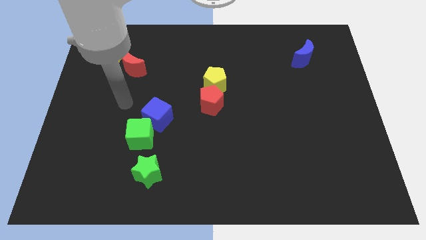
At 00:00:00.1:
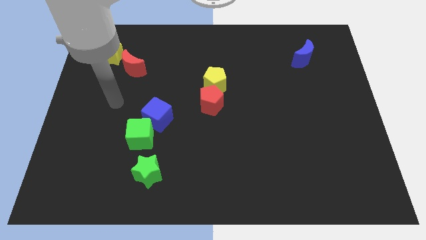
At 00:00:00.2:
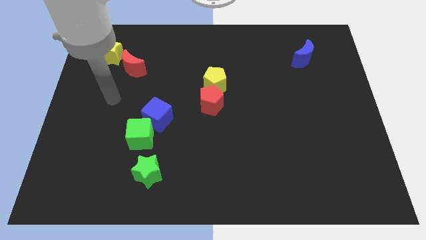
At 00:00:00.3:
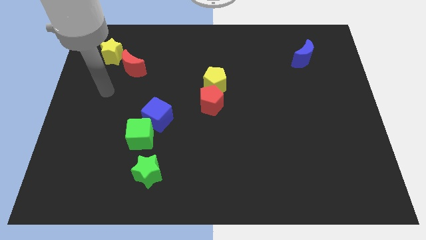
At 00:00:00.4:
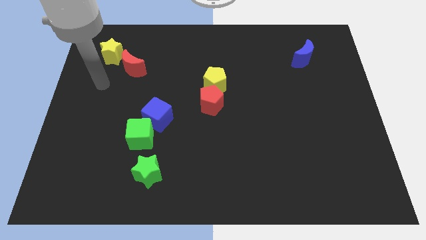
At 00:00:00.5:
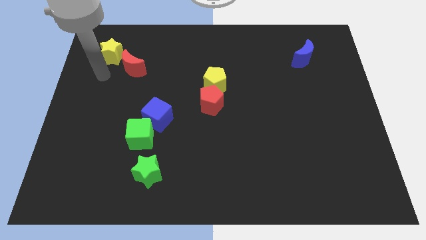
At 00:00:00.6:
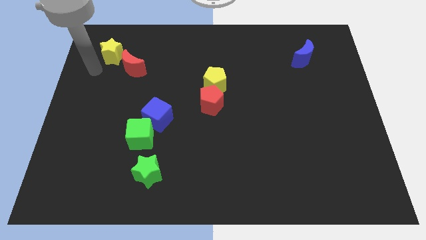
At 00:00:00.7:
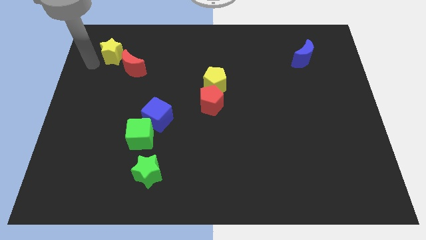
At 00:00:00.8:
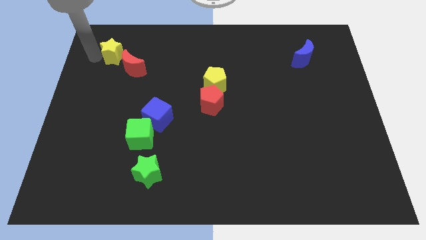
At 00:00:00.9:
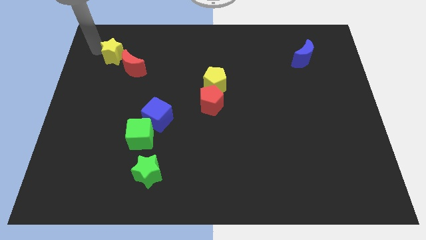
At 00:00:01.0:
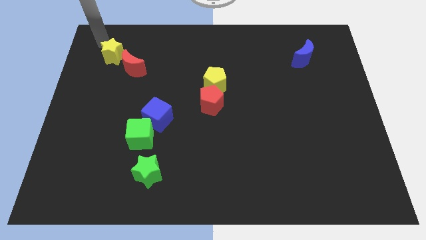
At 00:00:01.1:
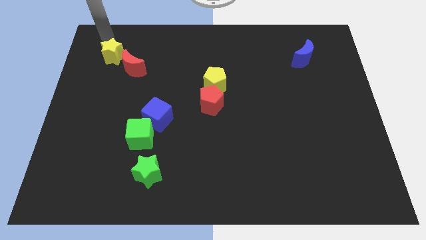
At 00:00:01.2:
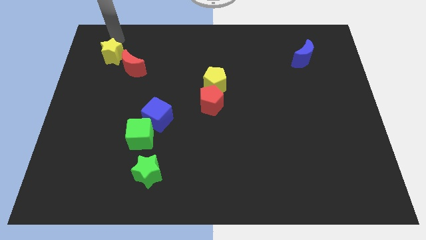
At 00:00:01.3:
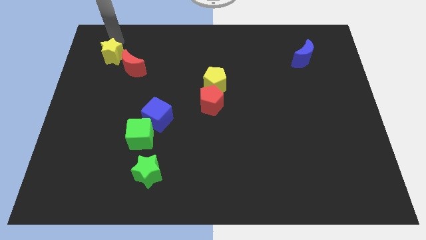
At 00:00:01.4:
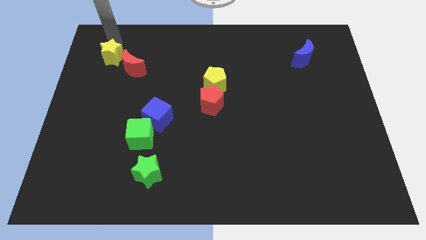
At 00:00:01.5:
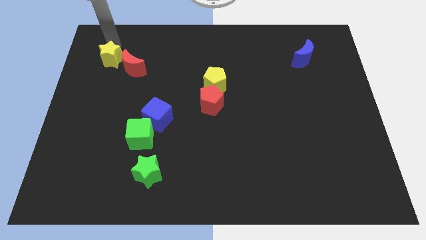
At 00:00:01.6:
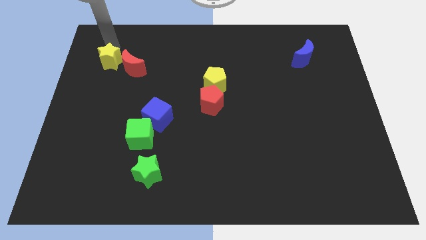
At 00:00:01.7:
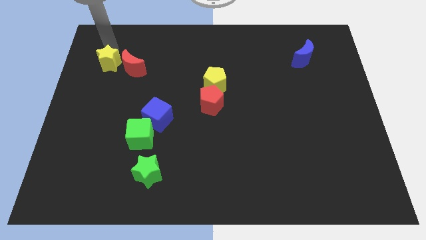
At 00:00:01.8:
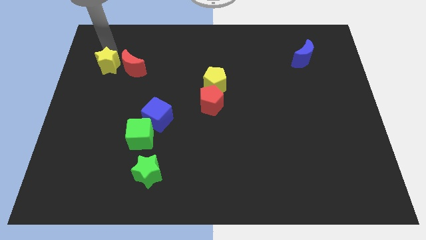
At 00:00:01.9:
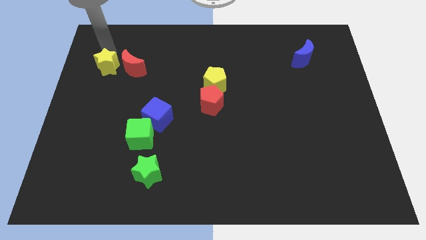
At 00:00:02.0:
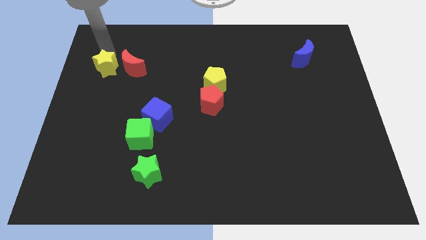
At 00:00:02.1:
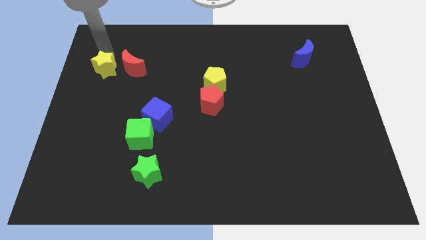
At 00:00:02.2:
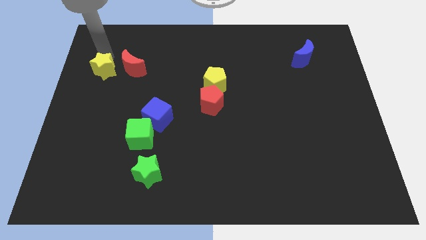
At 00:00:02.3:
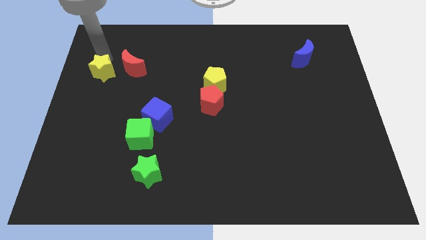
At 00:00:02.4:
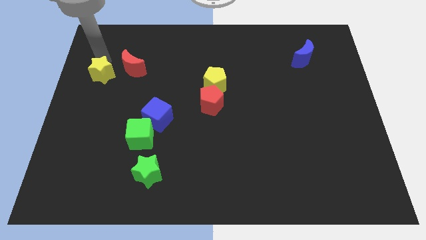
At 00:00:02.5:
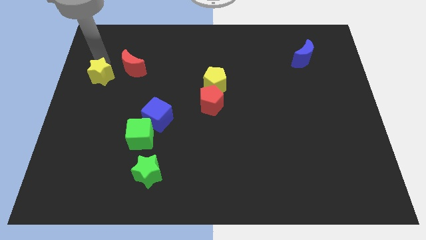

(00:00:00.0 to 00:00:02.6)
push the yellow star somewhat downwards

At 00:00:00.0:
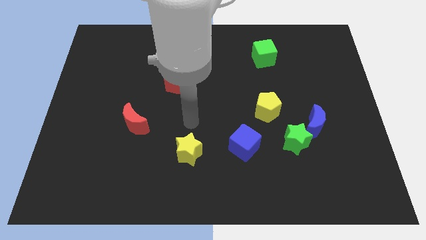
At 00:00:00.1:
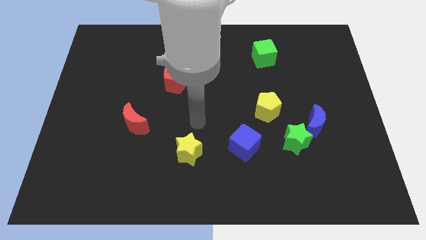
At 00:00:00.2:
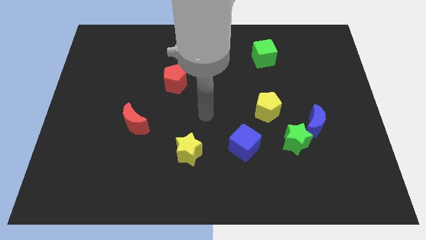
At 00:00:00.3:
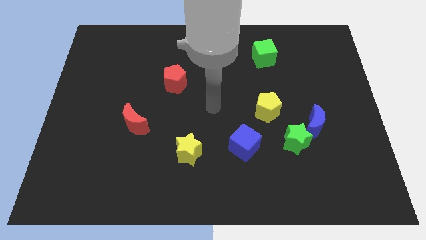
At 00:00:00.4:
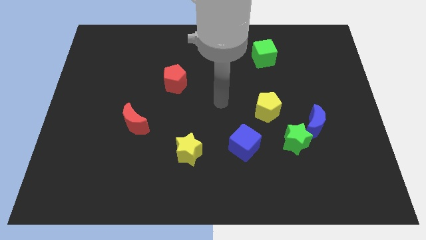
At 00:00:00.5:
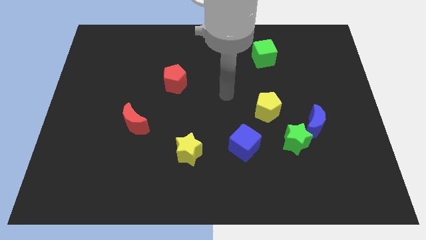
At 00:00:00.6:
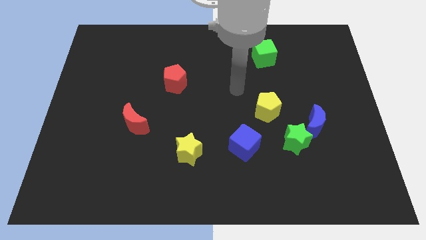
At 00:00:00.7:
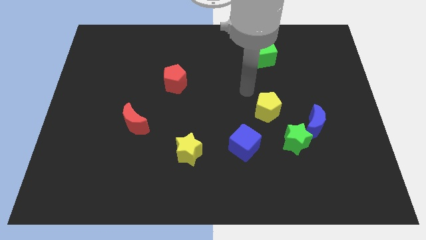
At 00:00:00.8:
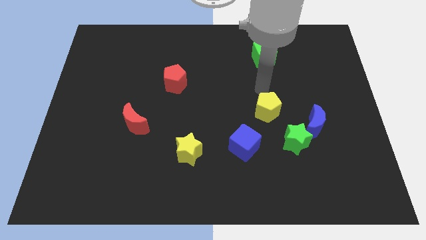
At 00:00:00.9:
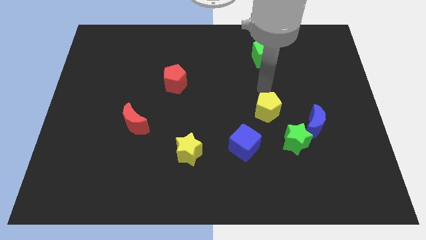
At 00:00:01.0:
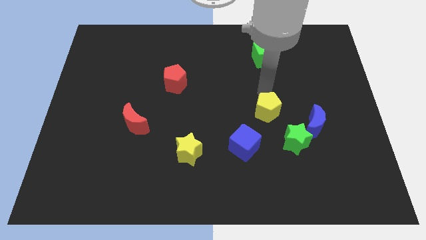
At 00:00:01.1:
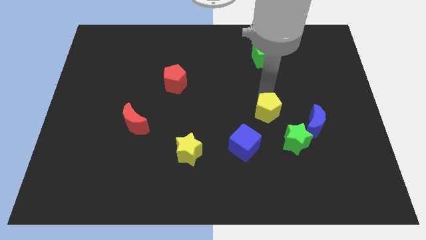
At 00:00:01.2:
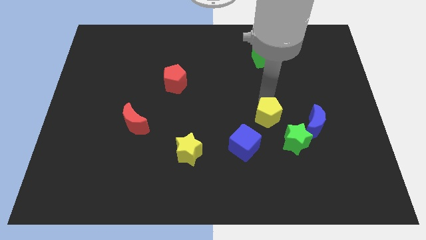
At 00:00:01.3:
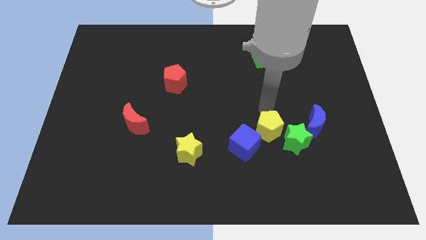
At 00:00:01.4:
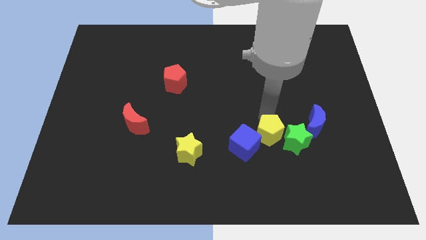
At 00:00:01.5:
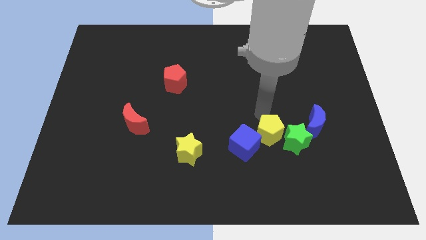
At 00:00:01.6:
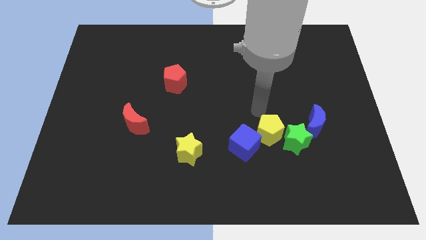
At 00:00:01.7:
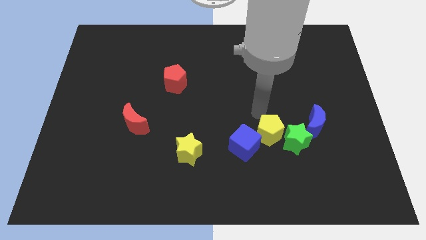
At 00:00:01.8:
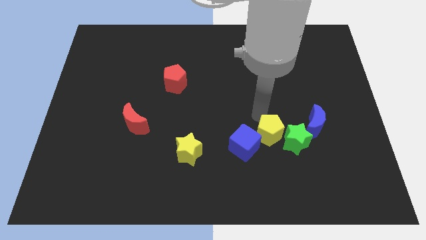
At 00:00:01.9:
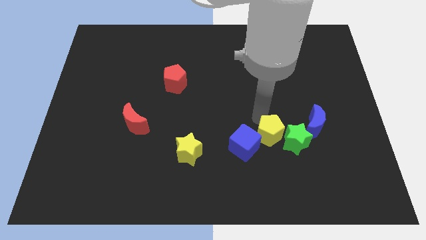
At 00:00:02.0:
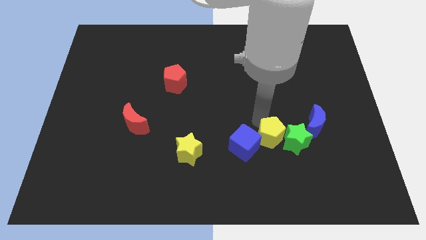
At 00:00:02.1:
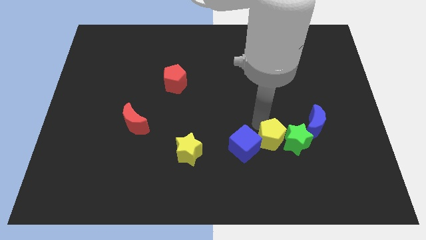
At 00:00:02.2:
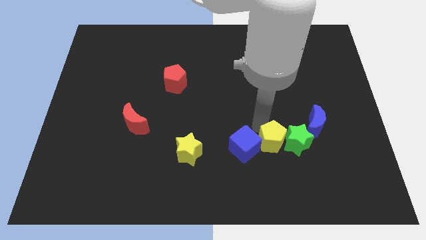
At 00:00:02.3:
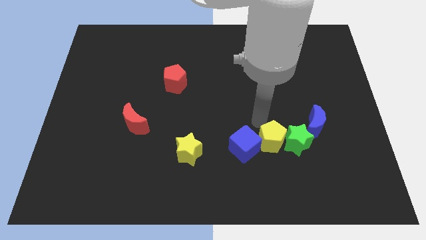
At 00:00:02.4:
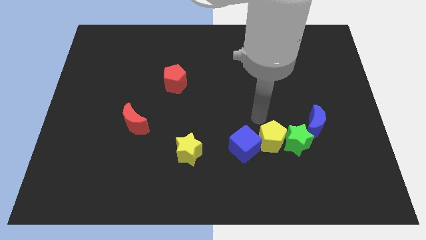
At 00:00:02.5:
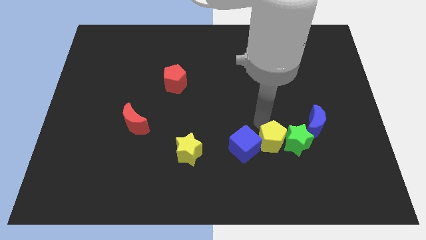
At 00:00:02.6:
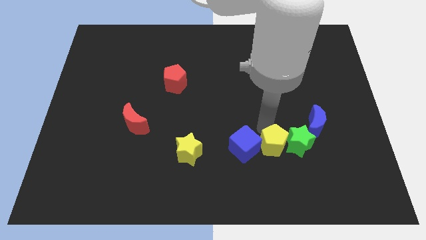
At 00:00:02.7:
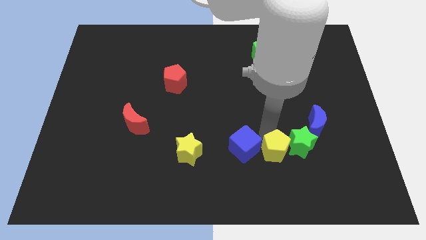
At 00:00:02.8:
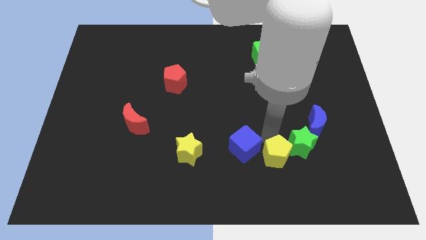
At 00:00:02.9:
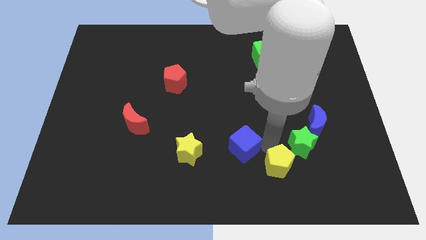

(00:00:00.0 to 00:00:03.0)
push the yellow pentagon a little downwards and to the right

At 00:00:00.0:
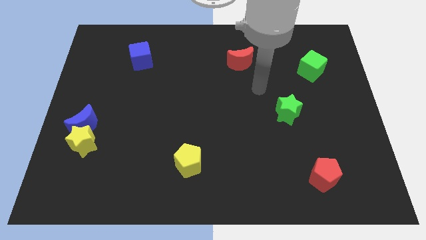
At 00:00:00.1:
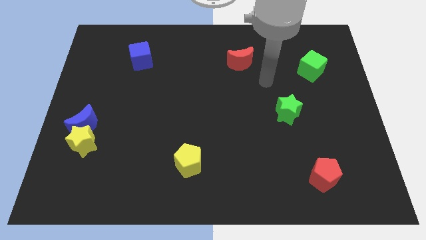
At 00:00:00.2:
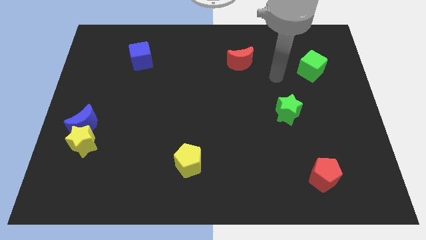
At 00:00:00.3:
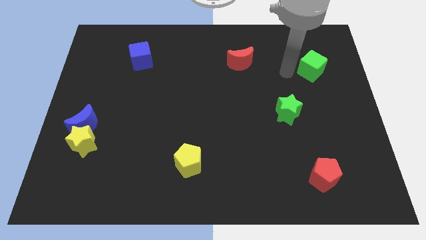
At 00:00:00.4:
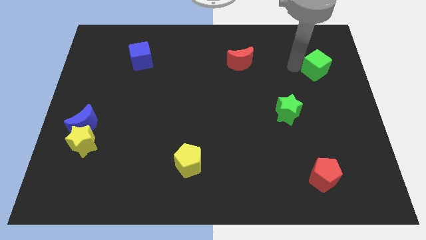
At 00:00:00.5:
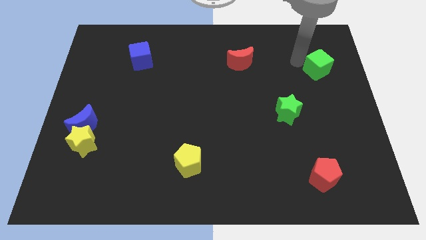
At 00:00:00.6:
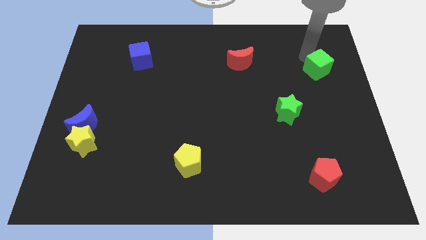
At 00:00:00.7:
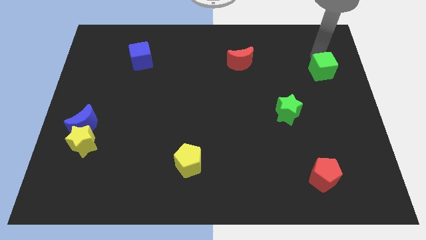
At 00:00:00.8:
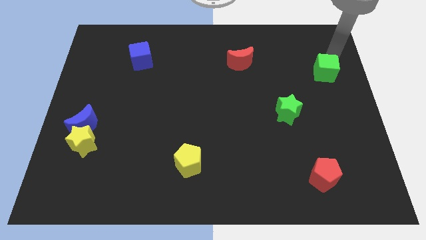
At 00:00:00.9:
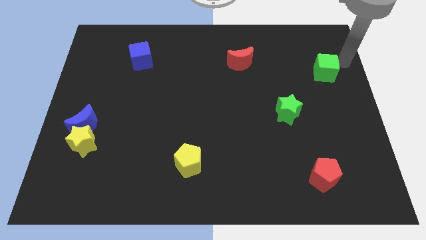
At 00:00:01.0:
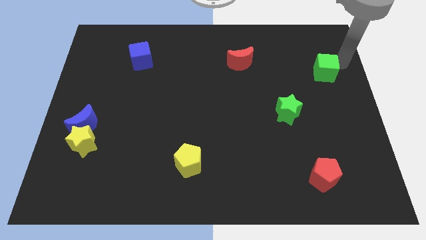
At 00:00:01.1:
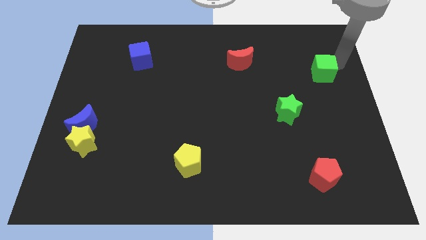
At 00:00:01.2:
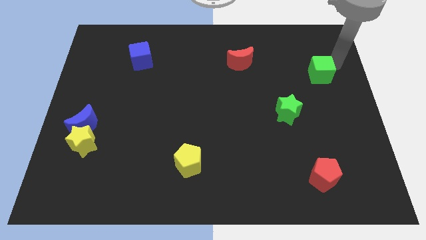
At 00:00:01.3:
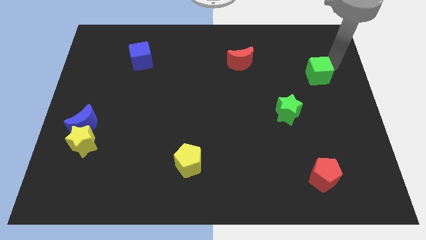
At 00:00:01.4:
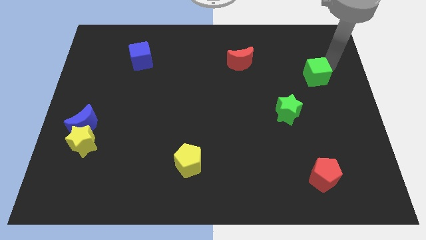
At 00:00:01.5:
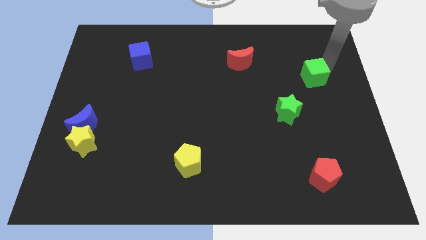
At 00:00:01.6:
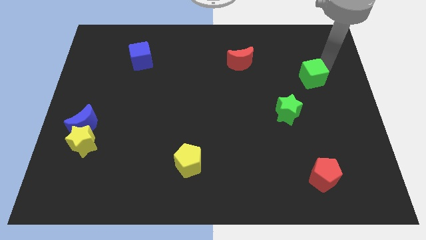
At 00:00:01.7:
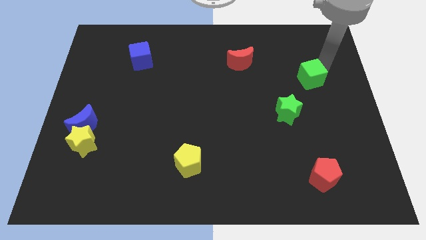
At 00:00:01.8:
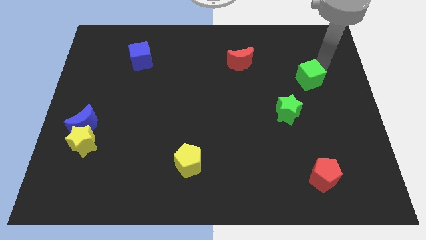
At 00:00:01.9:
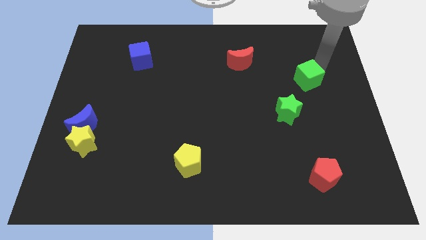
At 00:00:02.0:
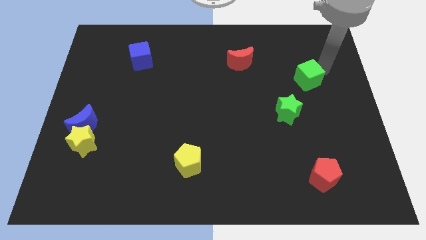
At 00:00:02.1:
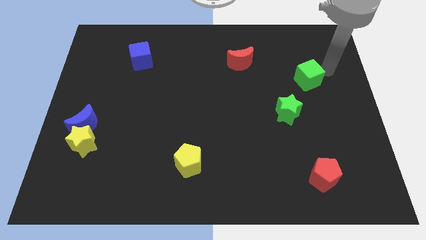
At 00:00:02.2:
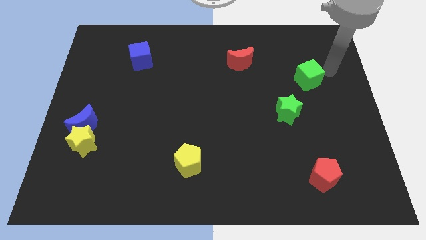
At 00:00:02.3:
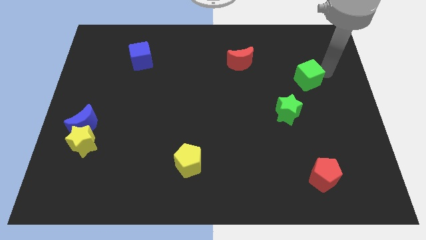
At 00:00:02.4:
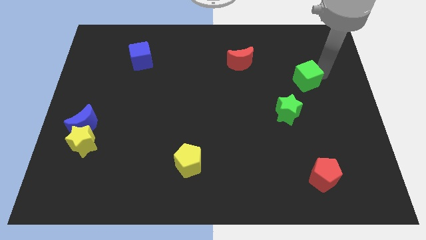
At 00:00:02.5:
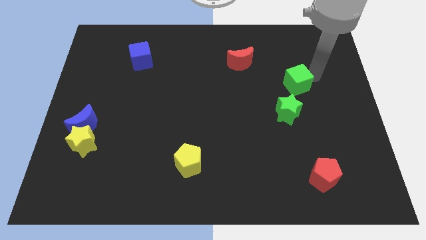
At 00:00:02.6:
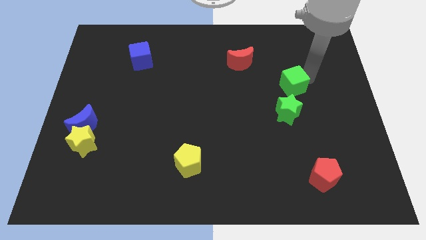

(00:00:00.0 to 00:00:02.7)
slightly move the green cube down and left
